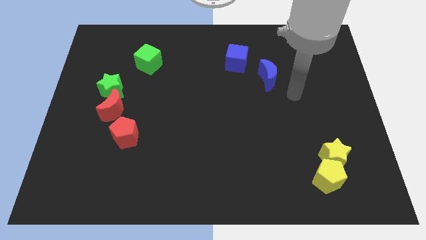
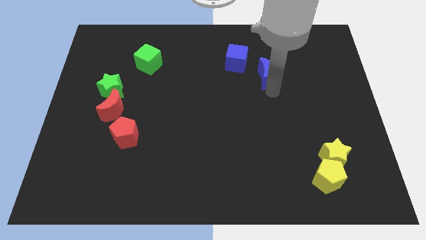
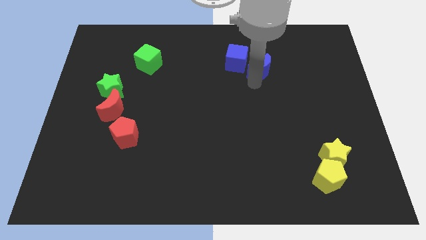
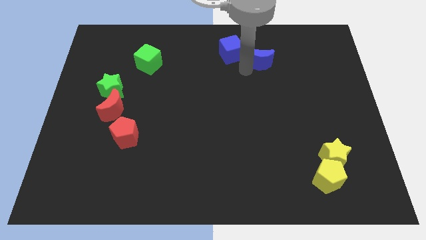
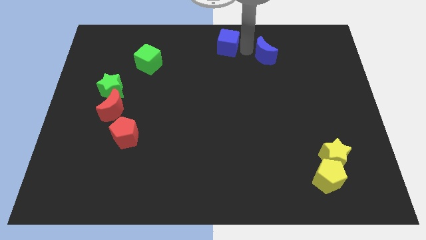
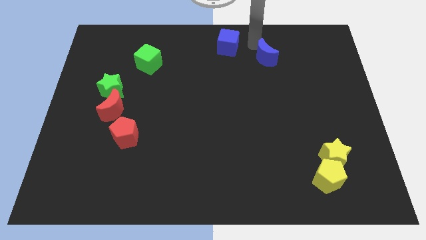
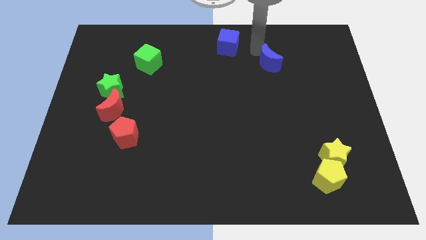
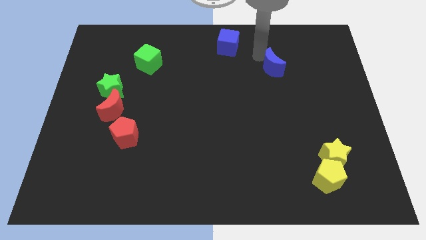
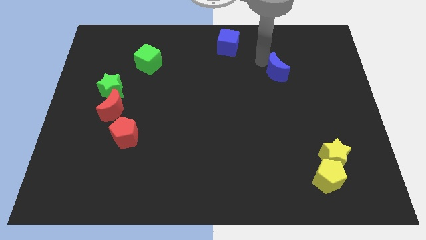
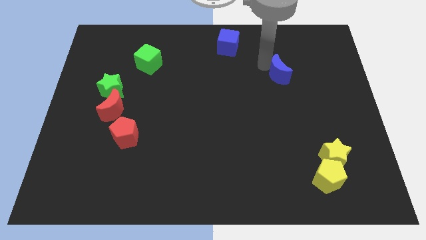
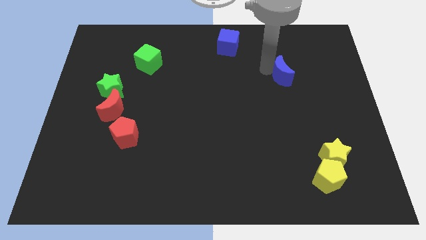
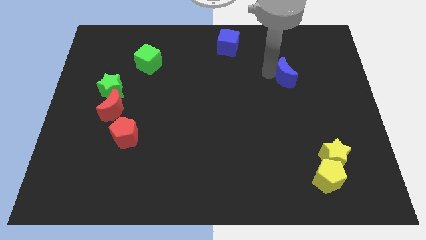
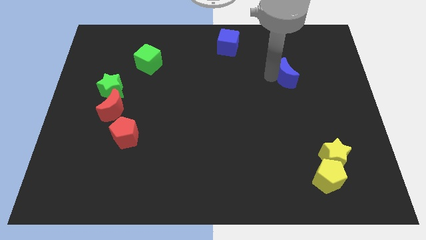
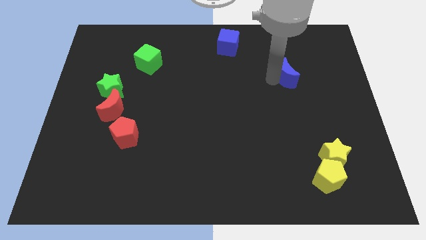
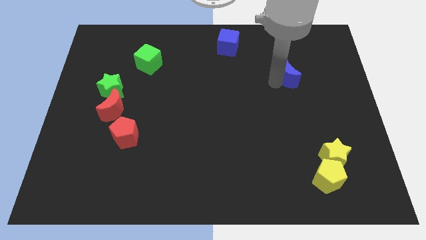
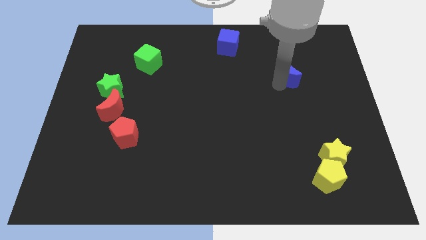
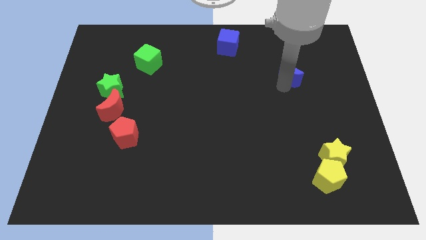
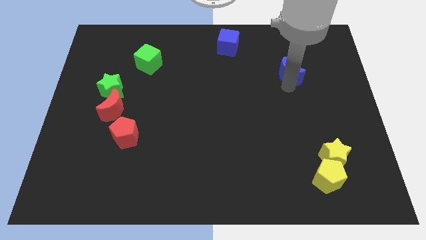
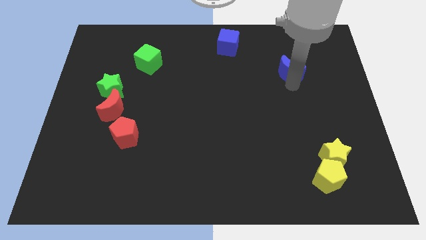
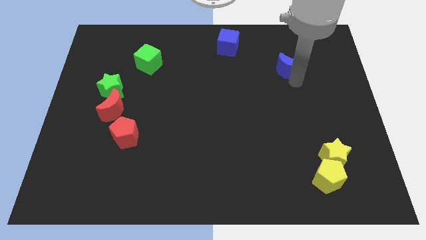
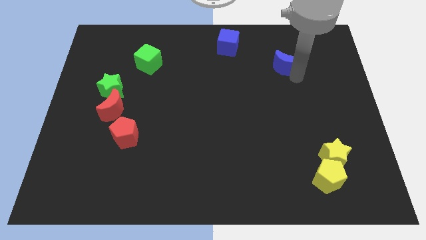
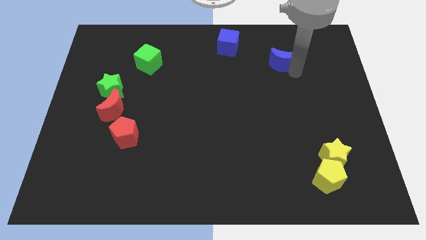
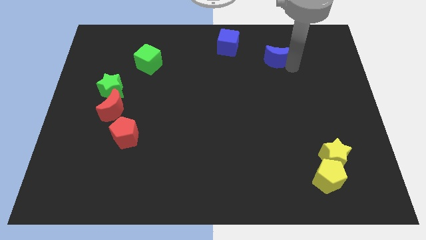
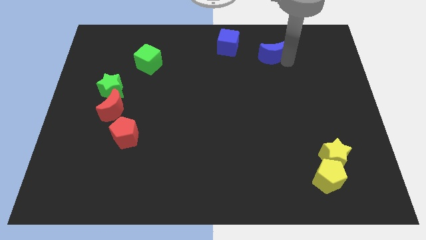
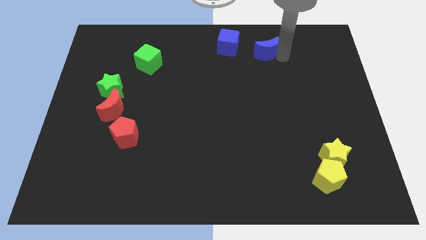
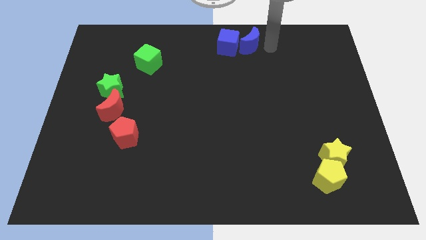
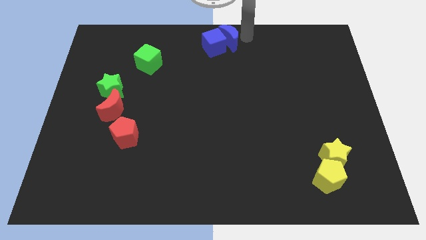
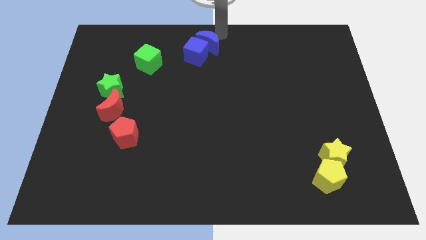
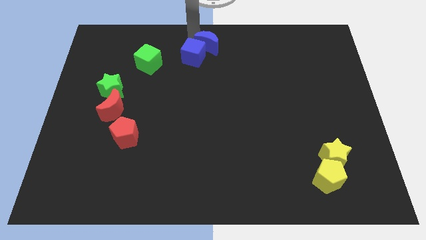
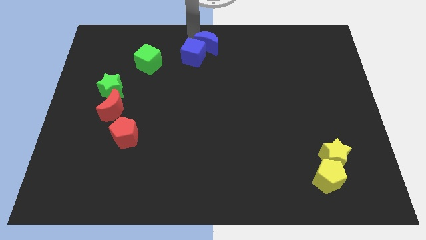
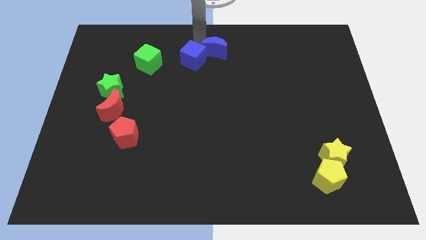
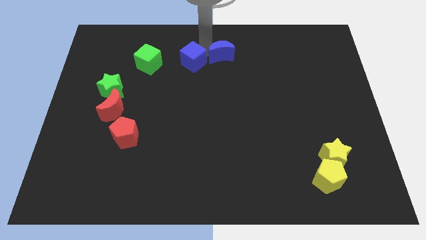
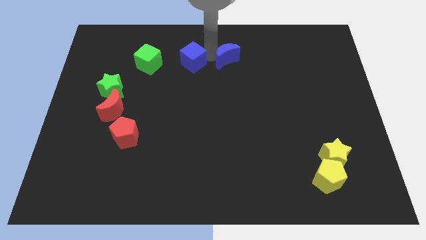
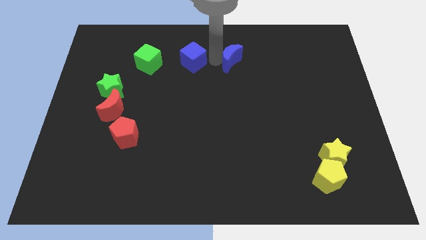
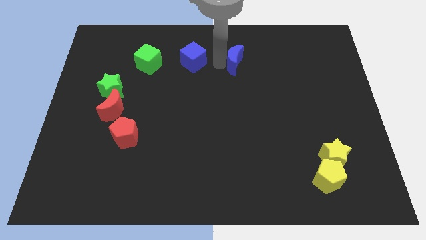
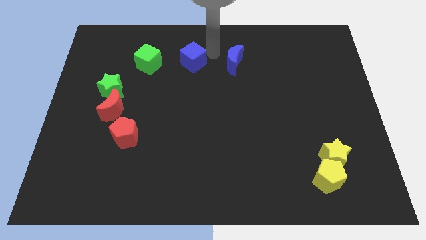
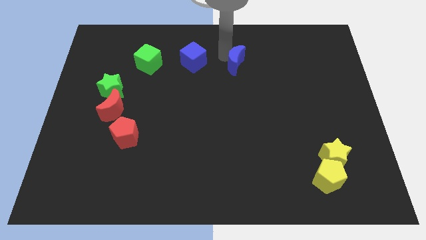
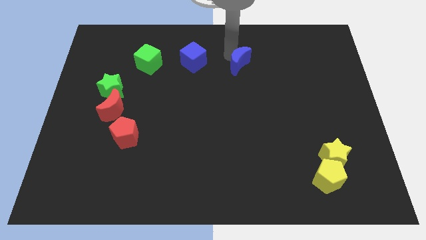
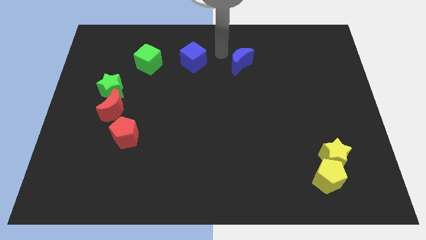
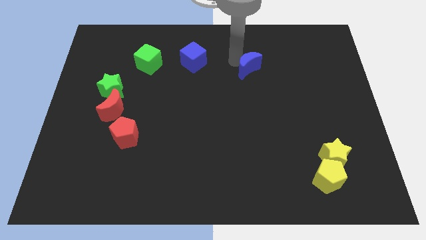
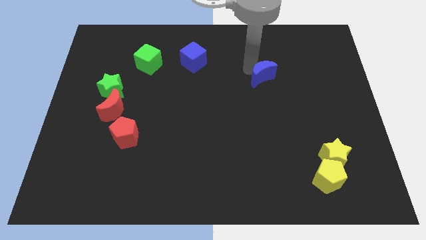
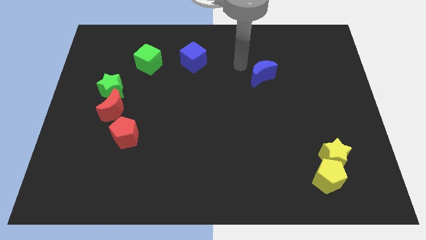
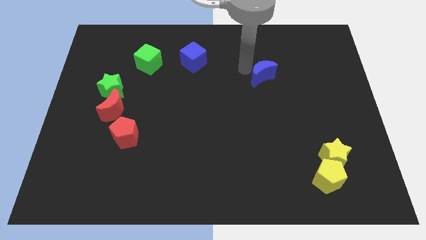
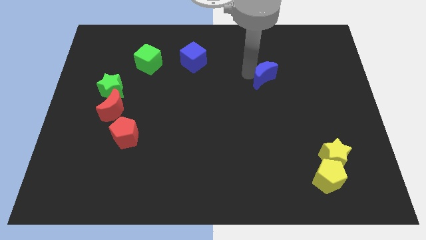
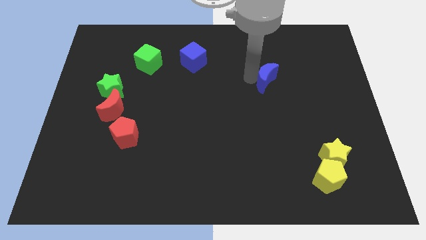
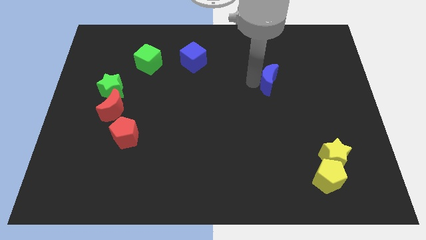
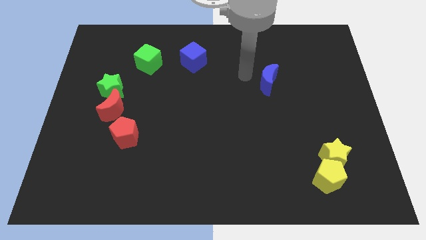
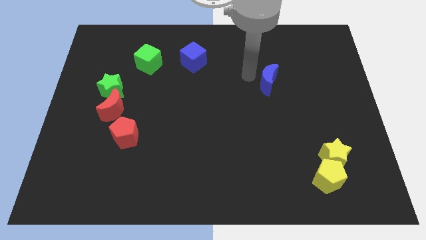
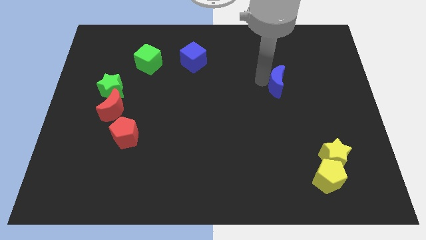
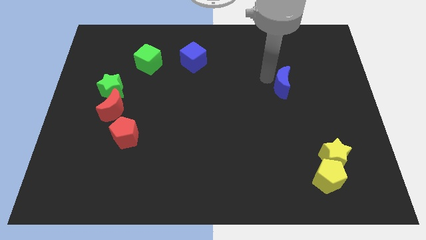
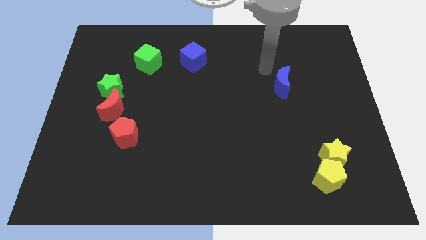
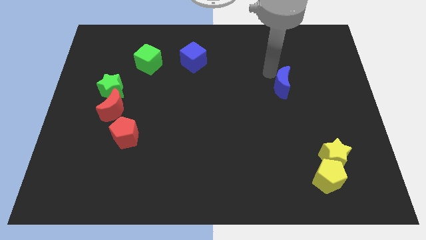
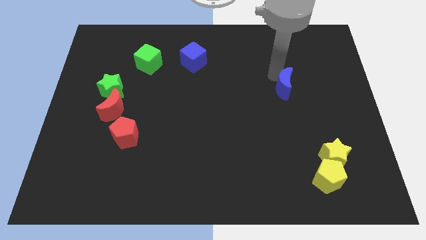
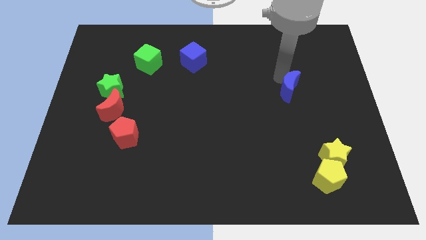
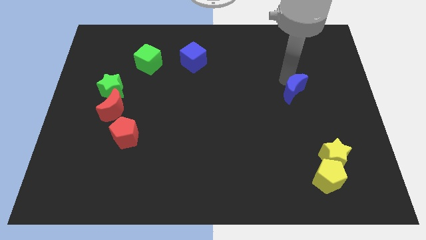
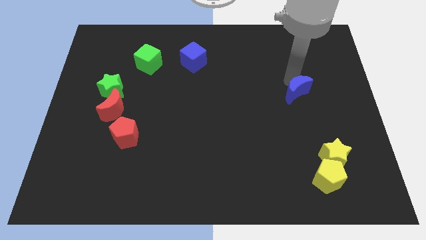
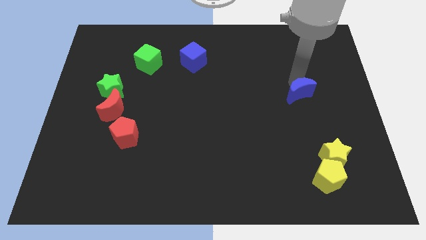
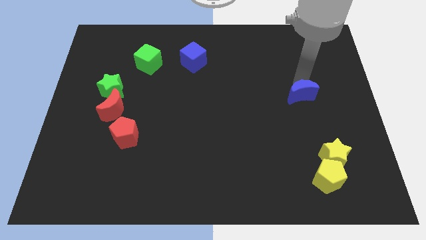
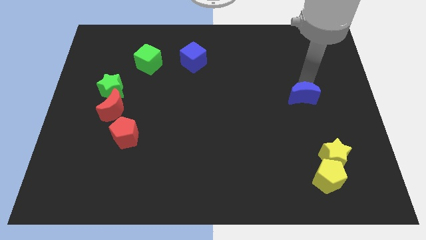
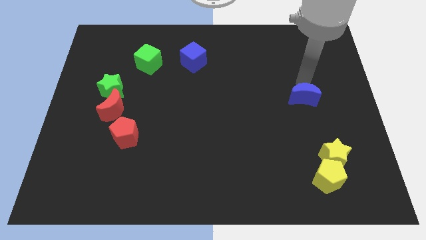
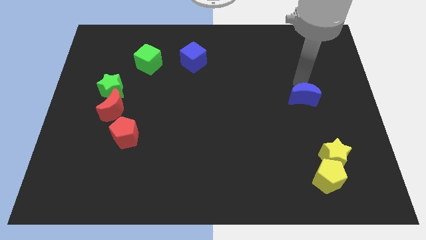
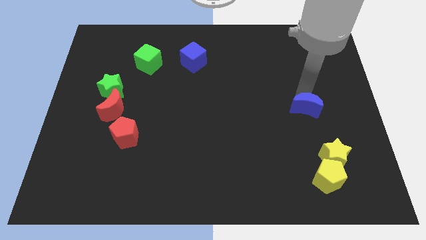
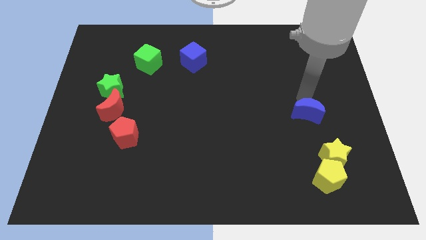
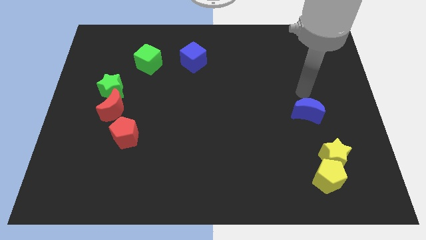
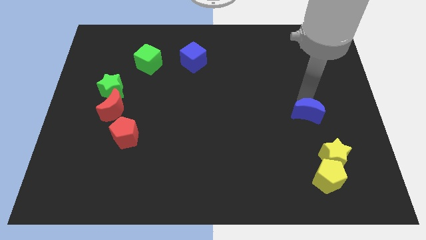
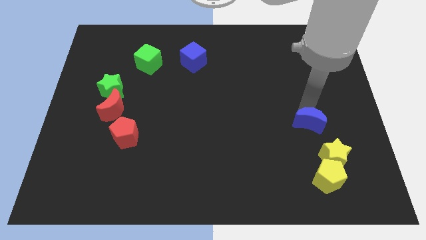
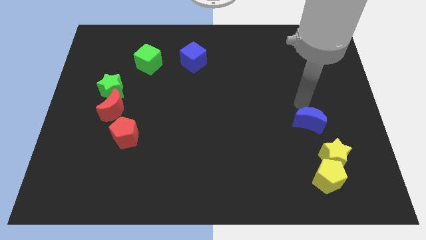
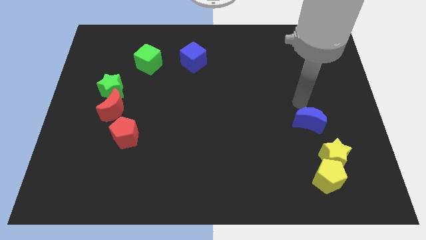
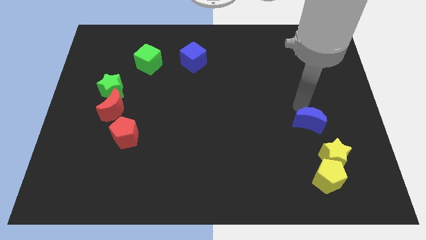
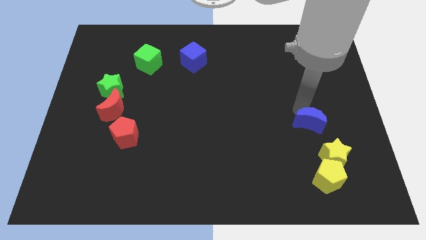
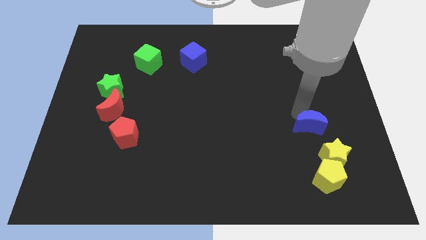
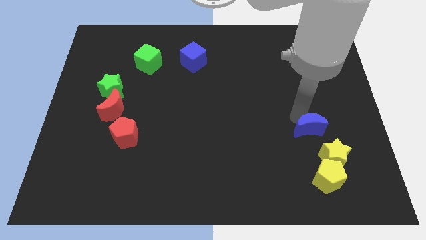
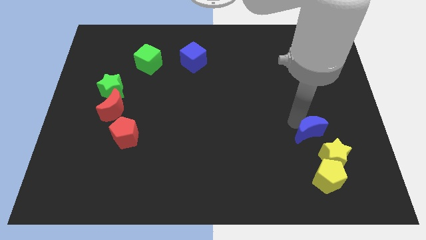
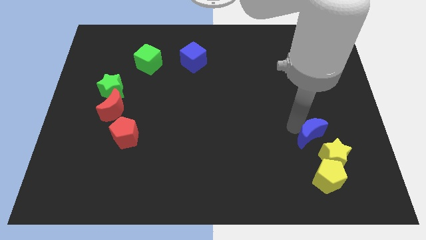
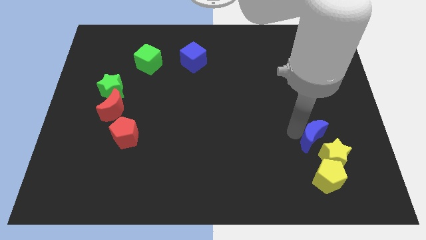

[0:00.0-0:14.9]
put the blue moon to the yellow star
